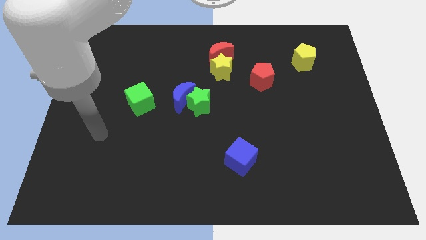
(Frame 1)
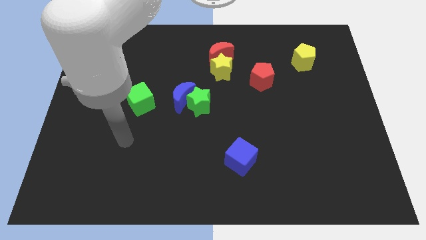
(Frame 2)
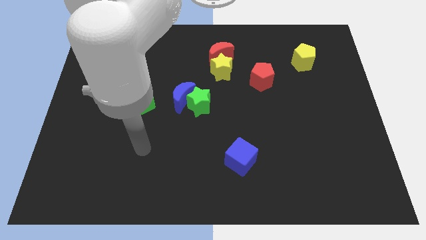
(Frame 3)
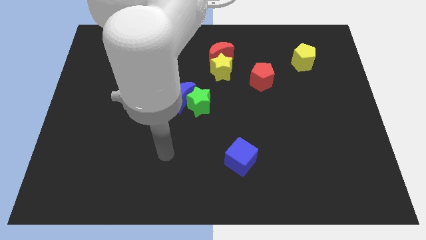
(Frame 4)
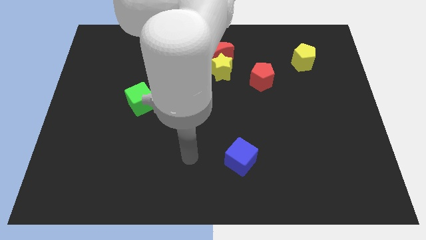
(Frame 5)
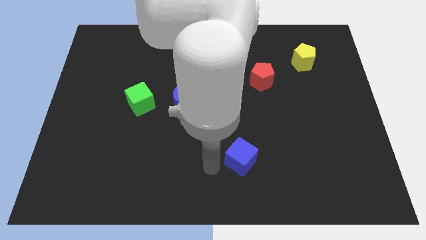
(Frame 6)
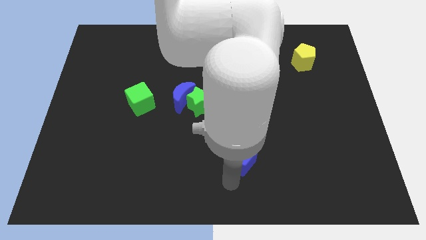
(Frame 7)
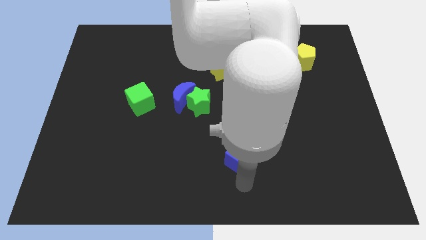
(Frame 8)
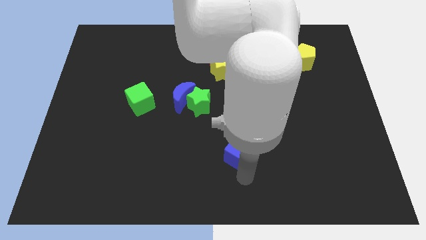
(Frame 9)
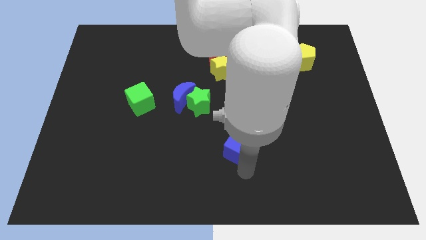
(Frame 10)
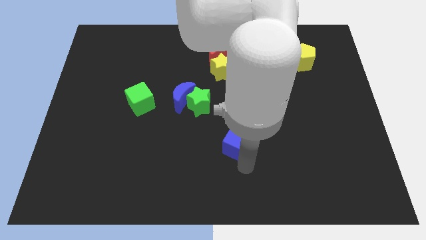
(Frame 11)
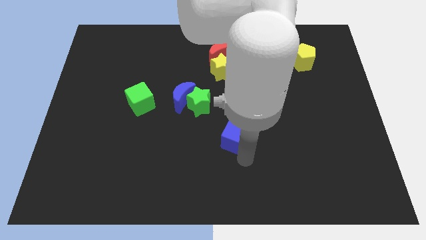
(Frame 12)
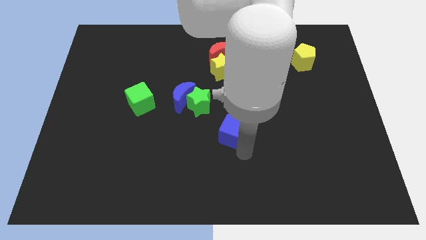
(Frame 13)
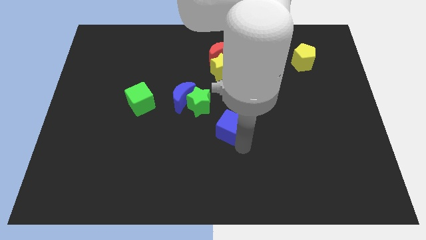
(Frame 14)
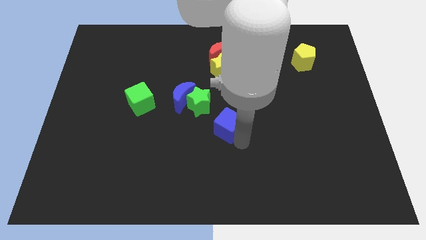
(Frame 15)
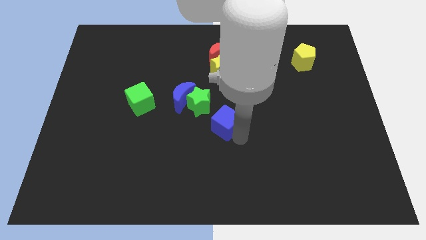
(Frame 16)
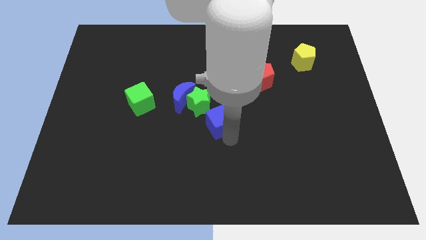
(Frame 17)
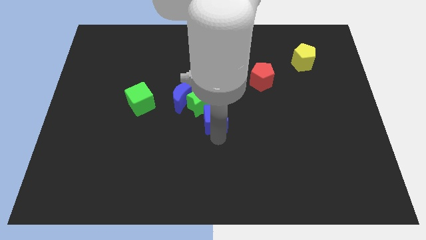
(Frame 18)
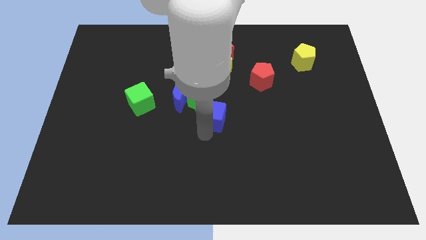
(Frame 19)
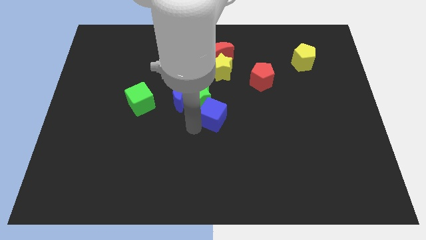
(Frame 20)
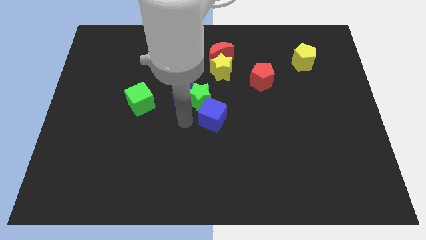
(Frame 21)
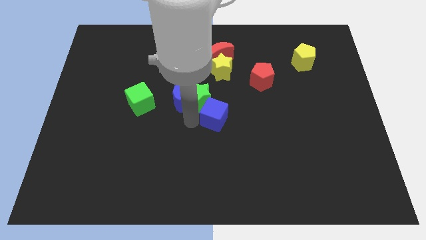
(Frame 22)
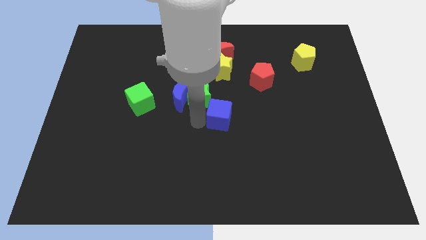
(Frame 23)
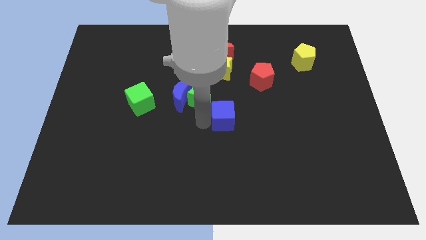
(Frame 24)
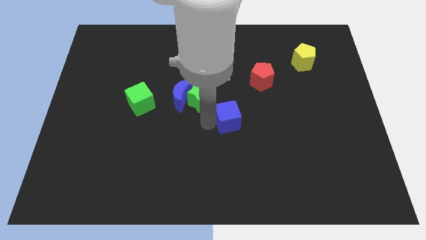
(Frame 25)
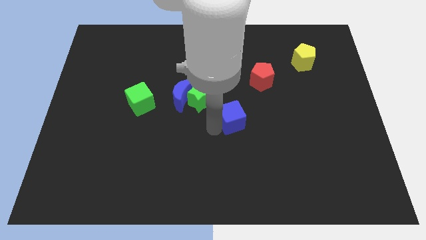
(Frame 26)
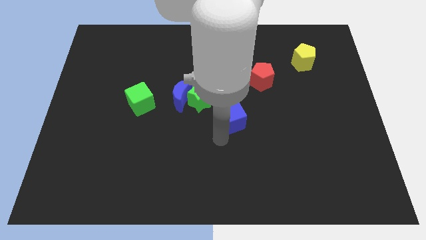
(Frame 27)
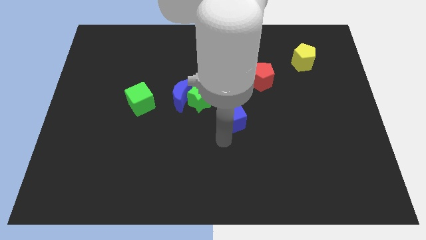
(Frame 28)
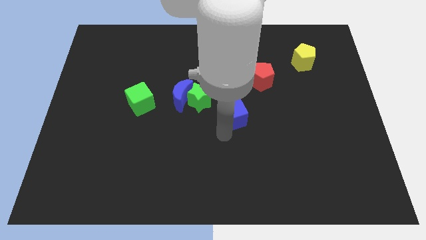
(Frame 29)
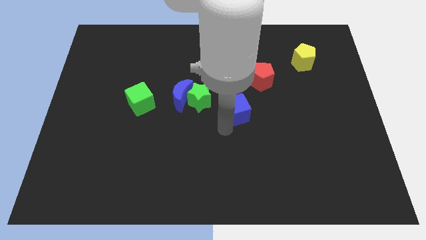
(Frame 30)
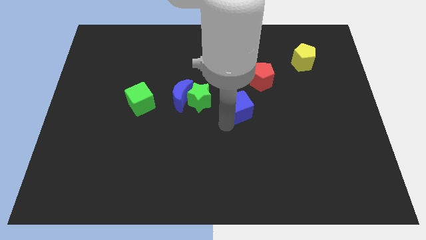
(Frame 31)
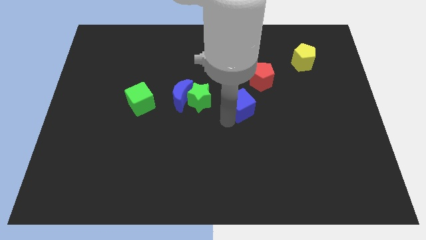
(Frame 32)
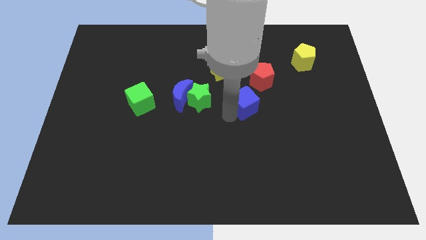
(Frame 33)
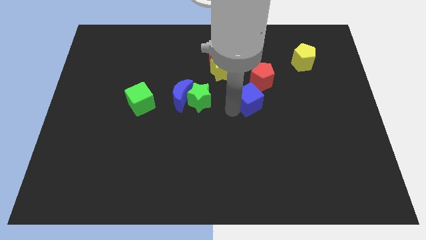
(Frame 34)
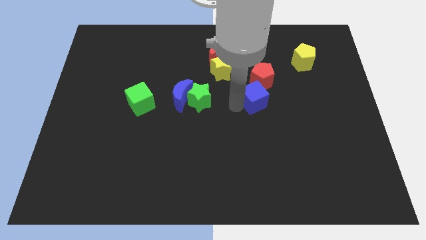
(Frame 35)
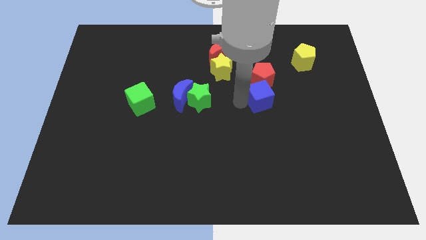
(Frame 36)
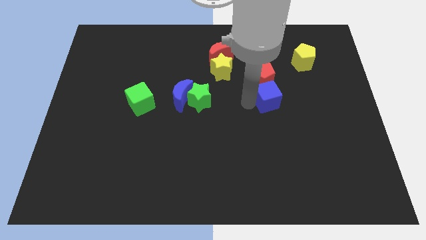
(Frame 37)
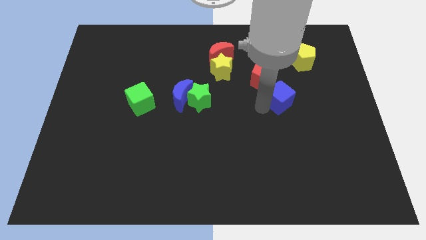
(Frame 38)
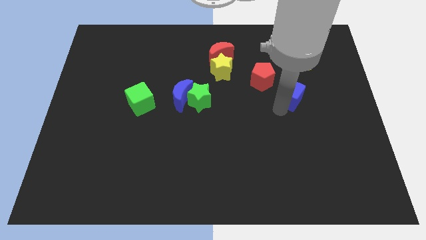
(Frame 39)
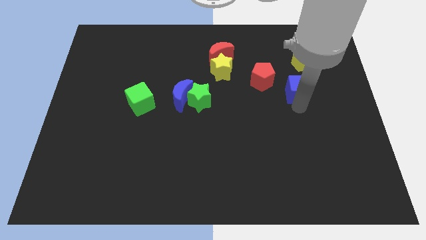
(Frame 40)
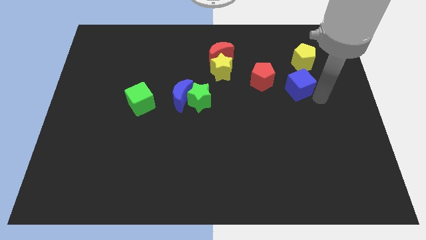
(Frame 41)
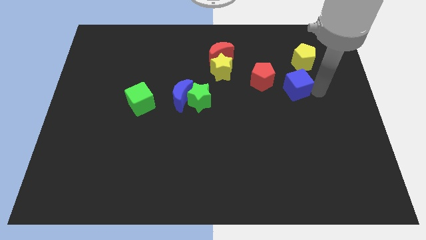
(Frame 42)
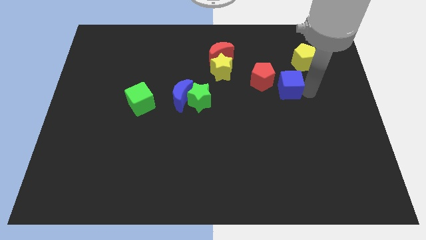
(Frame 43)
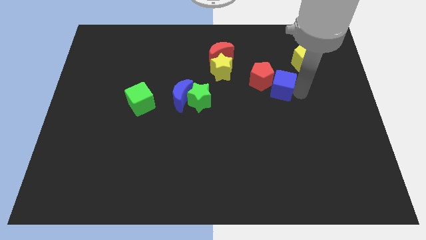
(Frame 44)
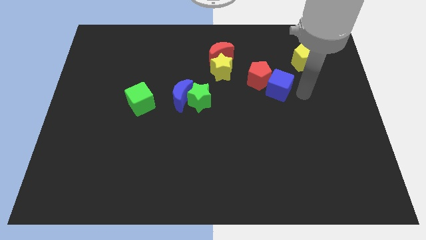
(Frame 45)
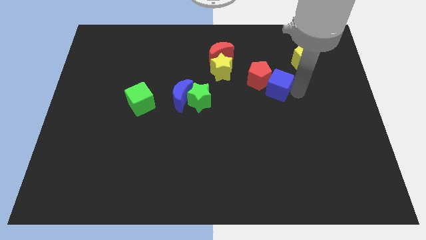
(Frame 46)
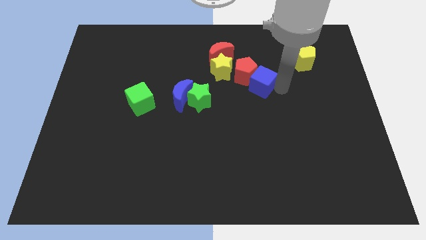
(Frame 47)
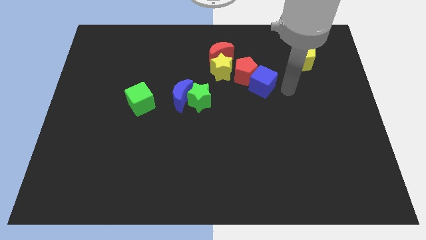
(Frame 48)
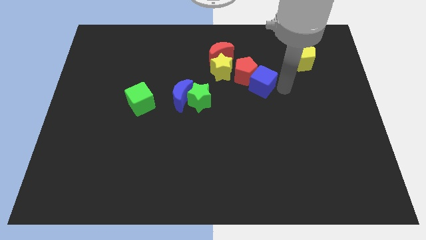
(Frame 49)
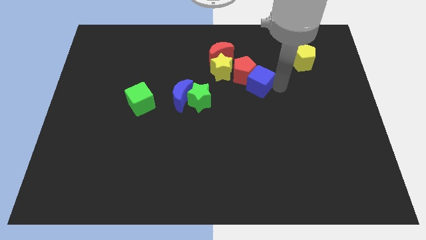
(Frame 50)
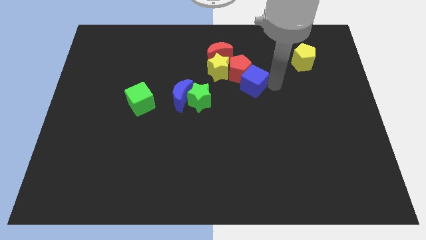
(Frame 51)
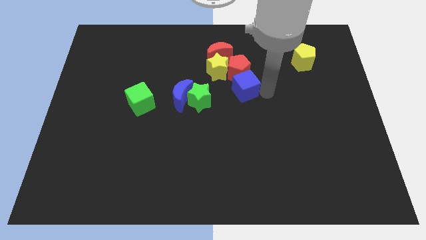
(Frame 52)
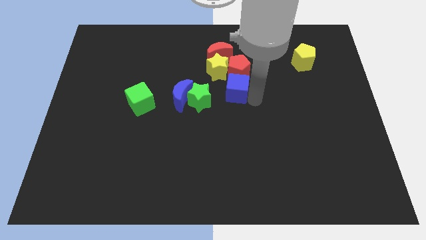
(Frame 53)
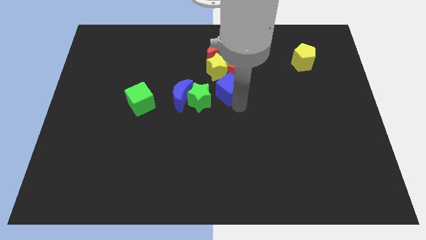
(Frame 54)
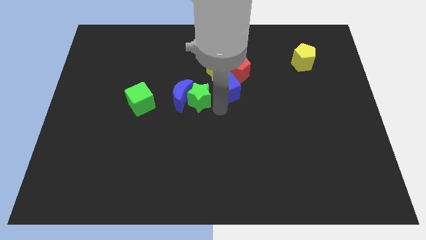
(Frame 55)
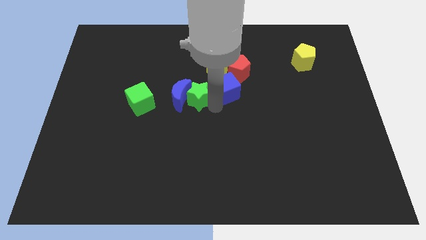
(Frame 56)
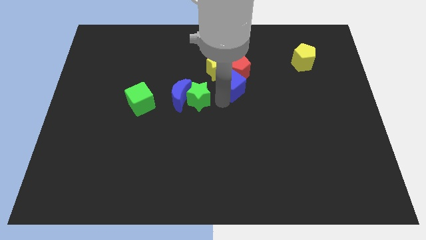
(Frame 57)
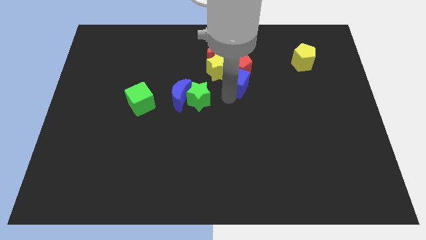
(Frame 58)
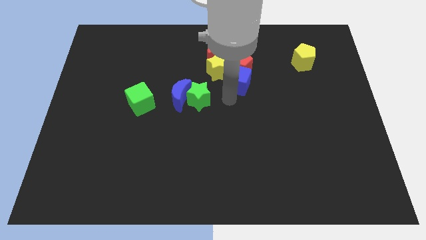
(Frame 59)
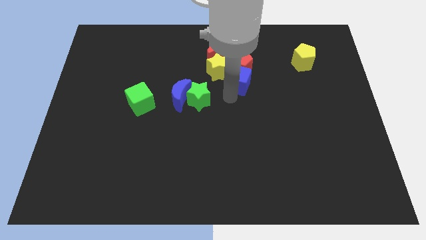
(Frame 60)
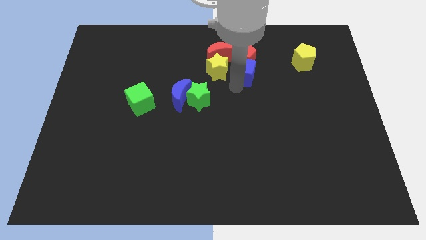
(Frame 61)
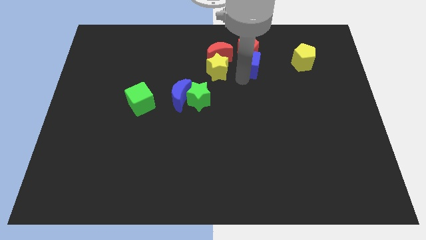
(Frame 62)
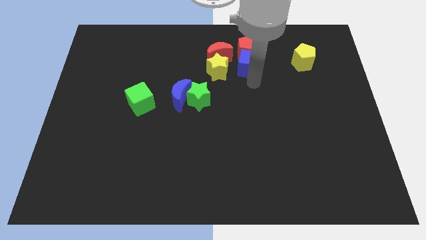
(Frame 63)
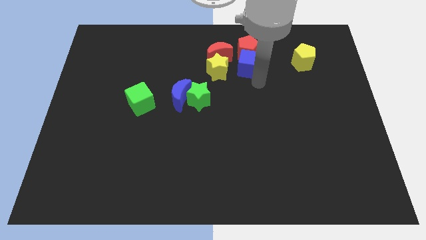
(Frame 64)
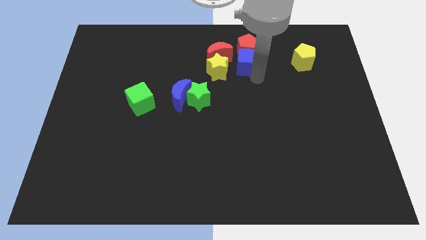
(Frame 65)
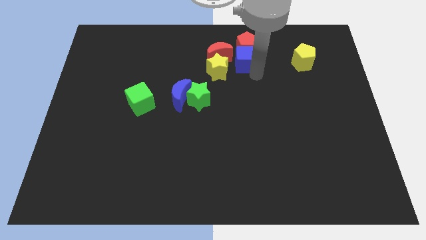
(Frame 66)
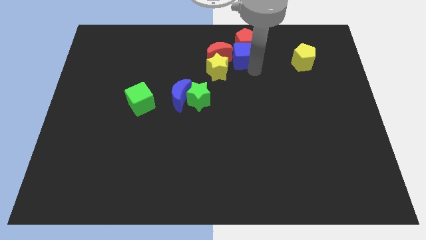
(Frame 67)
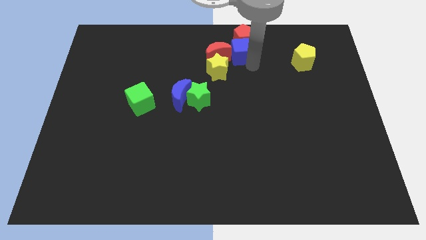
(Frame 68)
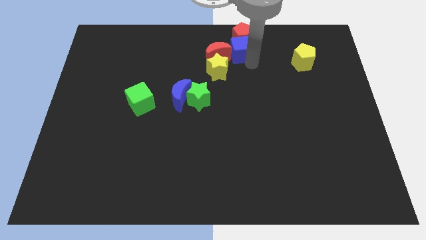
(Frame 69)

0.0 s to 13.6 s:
put the blue cube to the top side

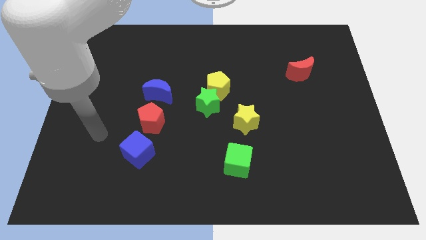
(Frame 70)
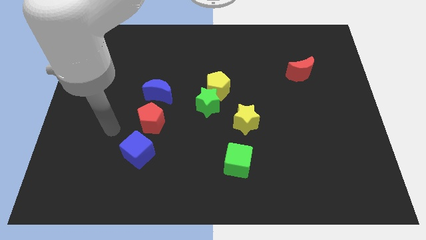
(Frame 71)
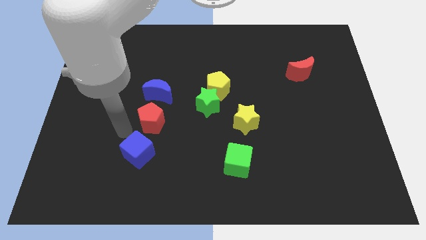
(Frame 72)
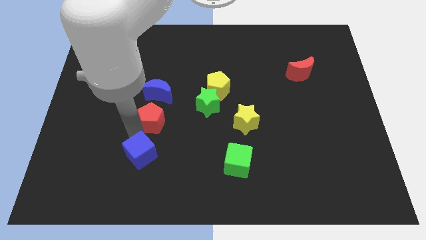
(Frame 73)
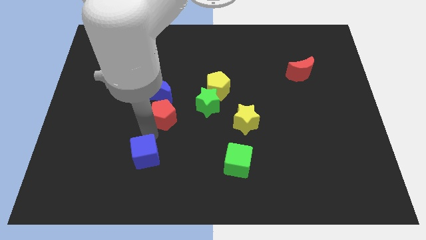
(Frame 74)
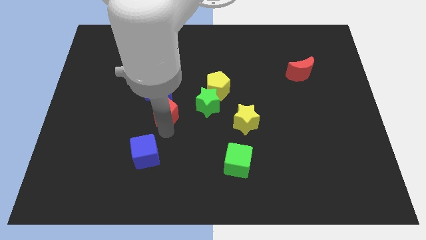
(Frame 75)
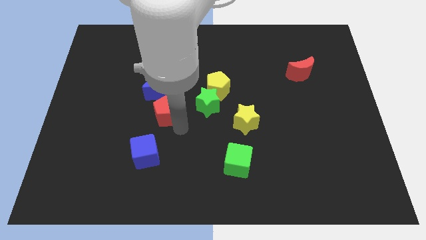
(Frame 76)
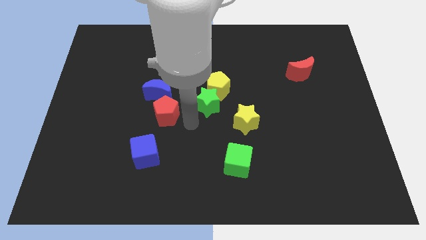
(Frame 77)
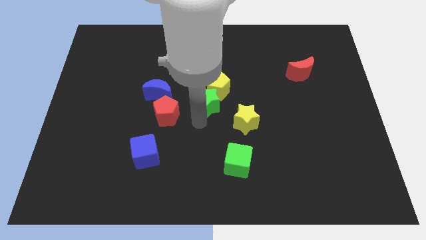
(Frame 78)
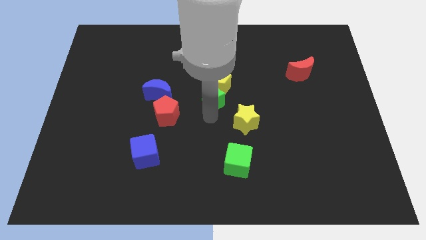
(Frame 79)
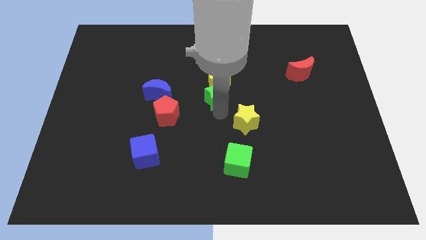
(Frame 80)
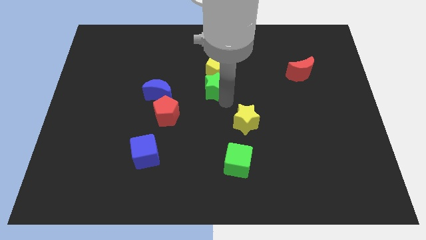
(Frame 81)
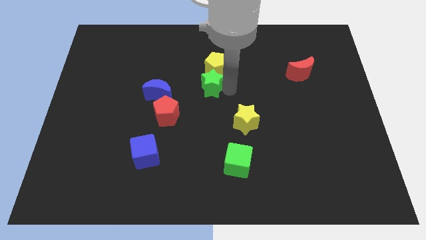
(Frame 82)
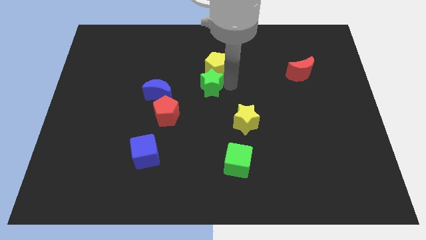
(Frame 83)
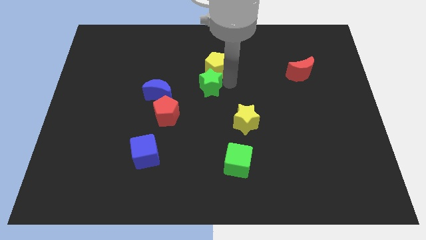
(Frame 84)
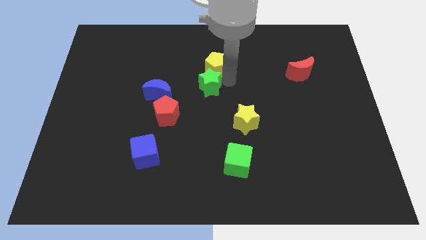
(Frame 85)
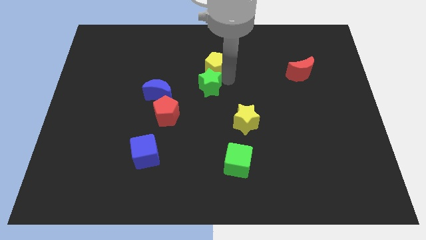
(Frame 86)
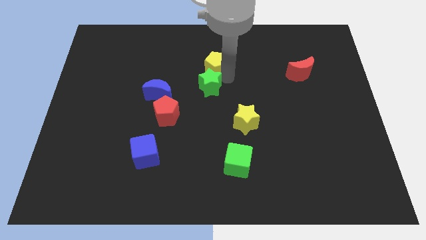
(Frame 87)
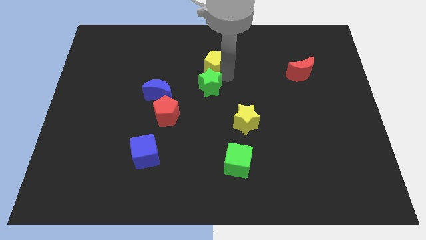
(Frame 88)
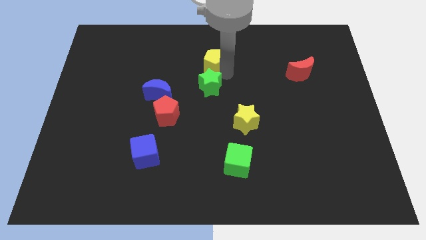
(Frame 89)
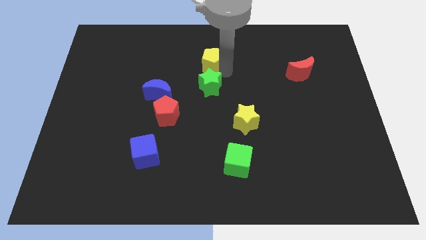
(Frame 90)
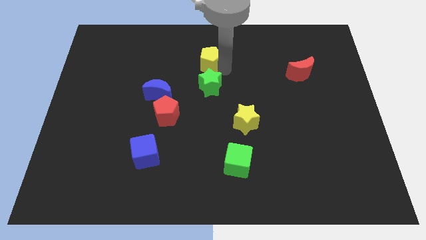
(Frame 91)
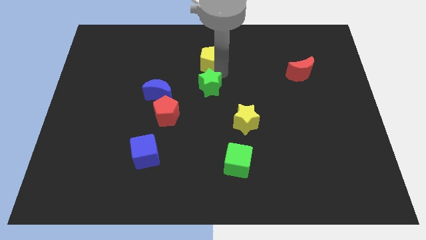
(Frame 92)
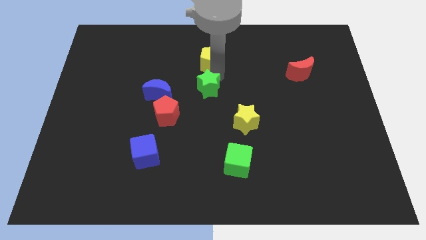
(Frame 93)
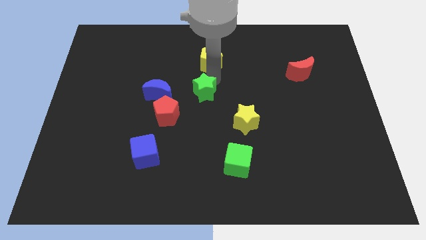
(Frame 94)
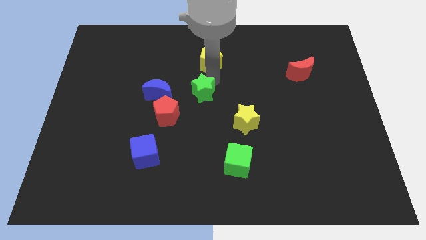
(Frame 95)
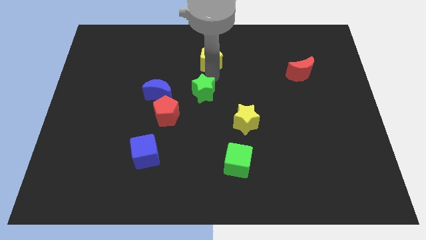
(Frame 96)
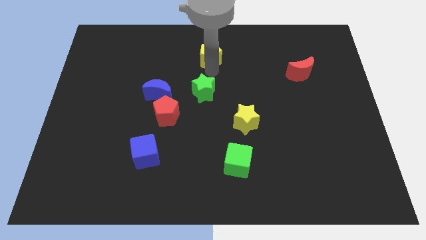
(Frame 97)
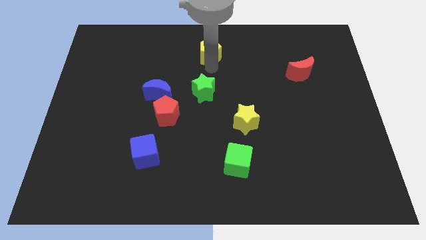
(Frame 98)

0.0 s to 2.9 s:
push the yellow pentagon to the towards your base
